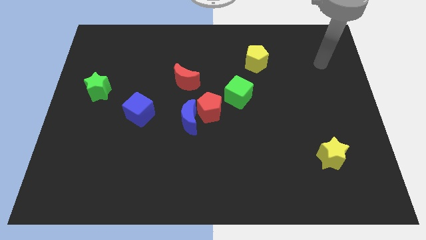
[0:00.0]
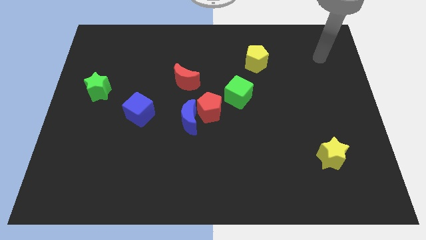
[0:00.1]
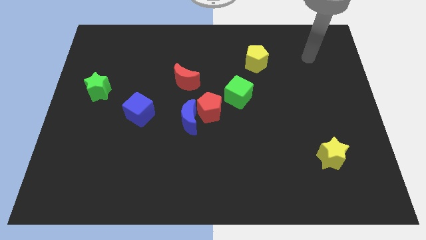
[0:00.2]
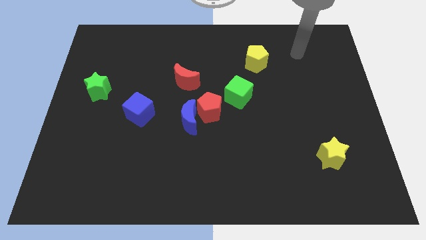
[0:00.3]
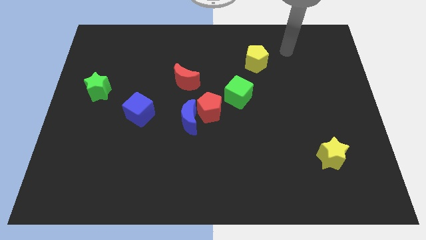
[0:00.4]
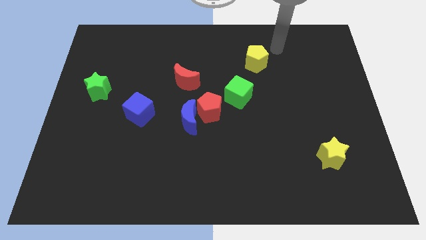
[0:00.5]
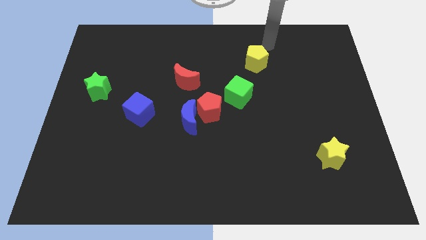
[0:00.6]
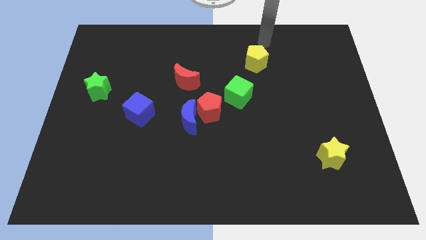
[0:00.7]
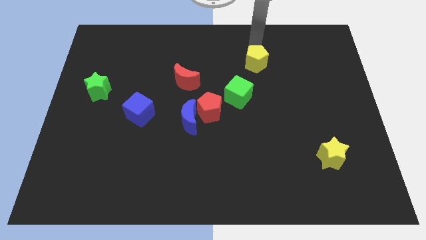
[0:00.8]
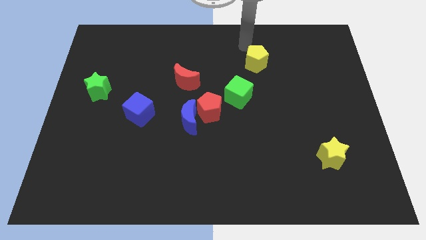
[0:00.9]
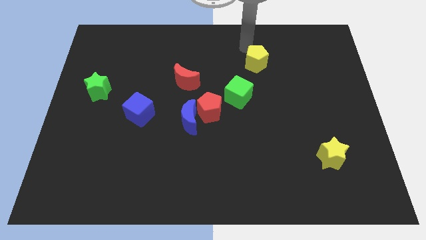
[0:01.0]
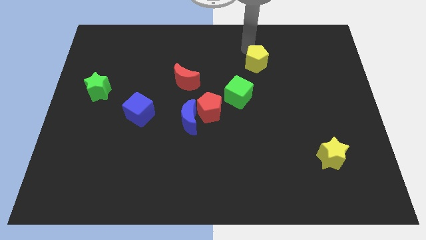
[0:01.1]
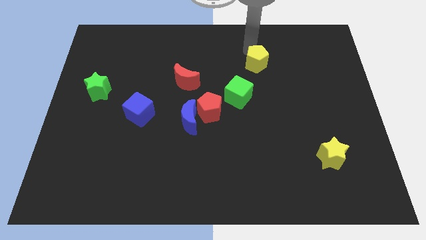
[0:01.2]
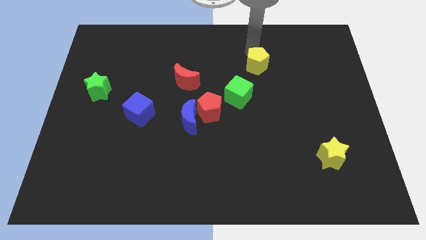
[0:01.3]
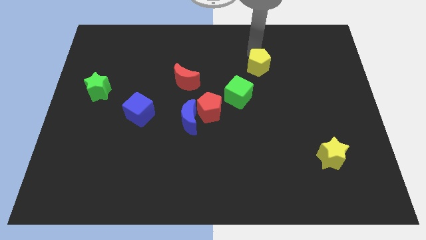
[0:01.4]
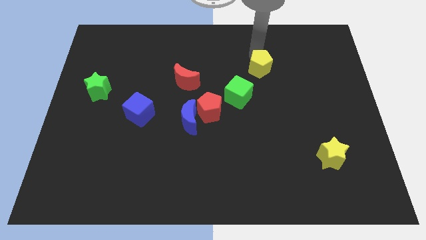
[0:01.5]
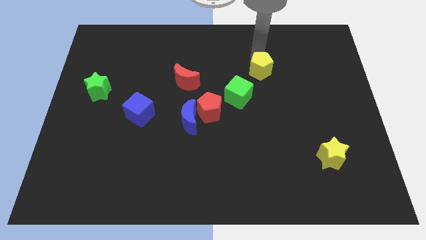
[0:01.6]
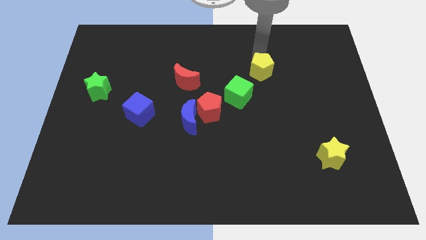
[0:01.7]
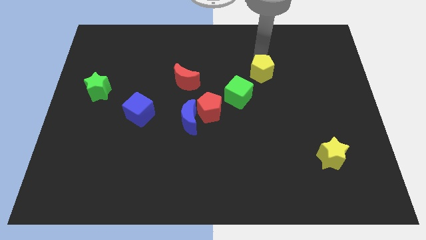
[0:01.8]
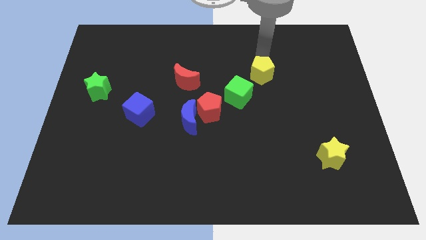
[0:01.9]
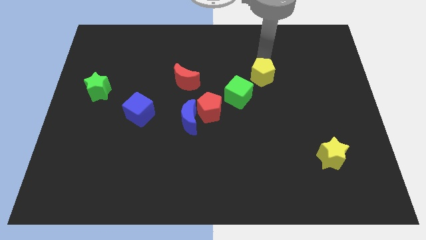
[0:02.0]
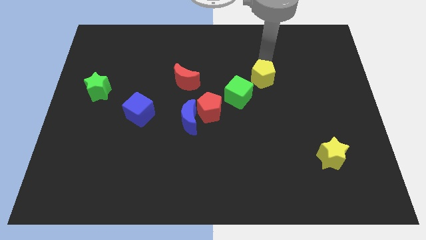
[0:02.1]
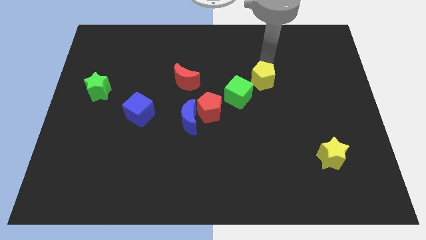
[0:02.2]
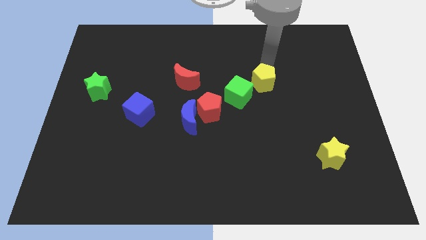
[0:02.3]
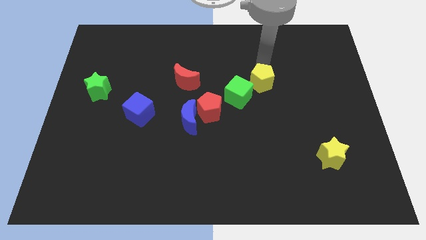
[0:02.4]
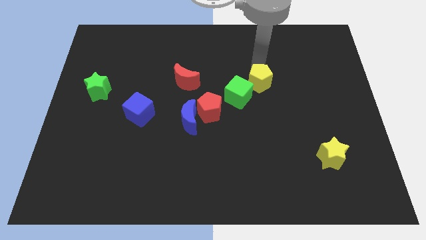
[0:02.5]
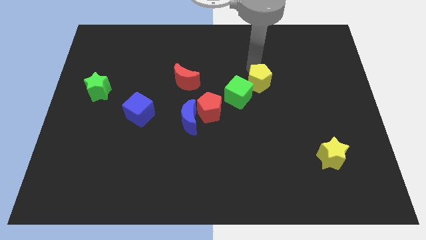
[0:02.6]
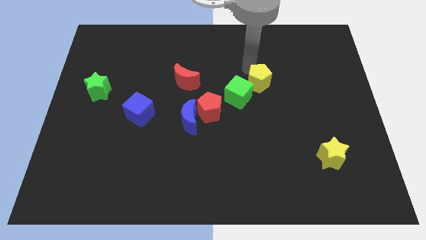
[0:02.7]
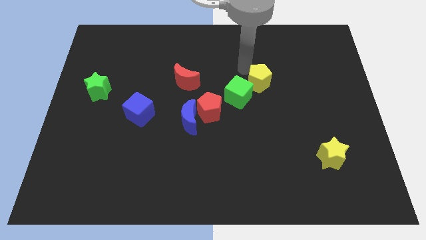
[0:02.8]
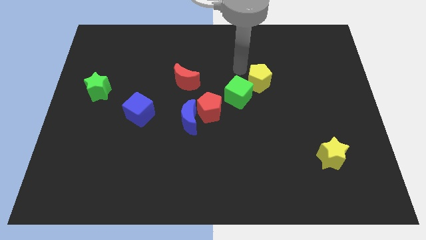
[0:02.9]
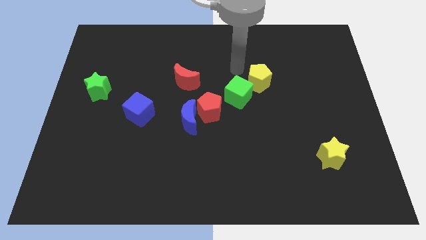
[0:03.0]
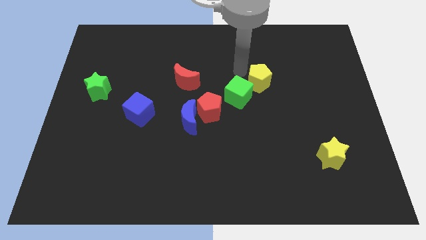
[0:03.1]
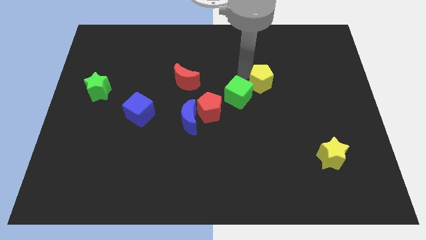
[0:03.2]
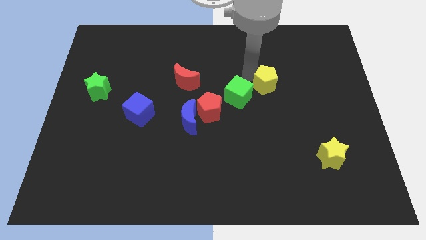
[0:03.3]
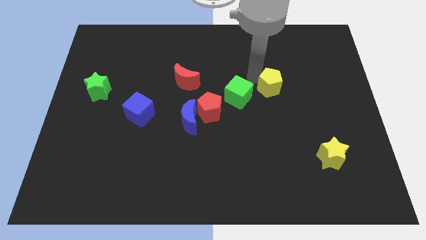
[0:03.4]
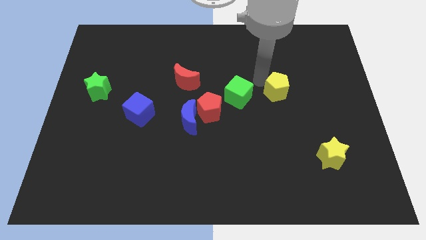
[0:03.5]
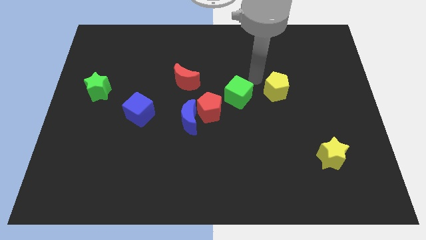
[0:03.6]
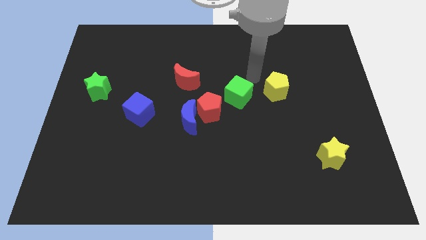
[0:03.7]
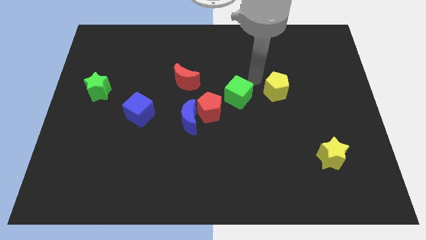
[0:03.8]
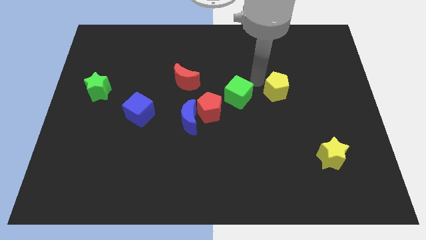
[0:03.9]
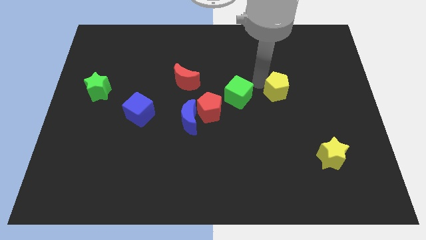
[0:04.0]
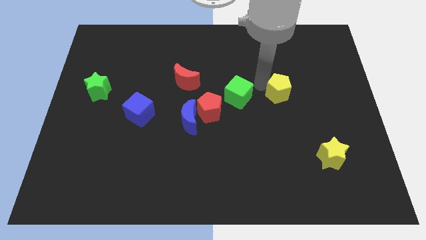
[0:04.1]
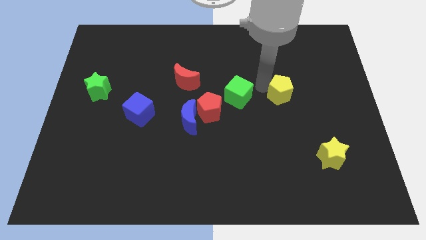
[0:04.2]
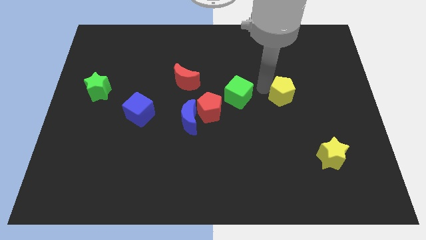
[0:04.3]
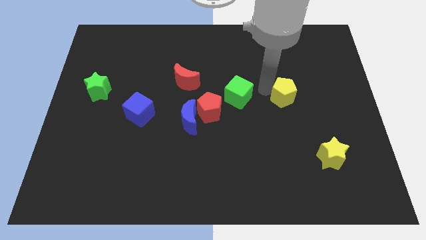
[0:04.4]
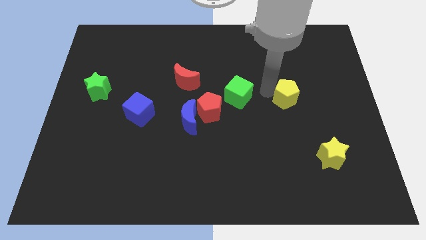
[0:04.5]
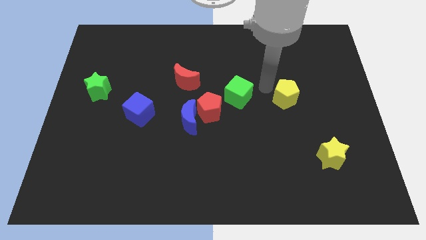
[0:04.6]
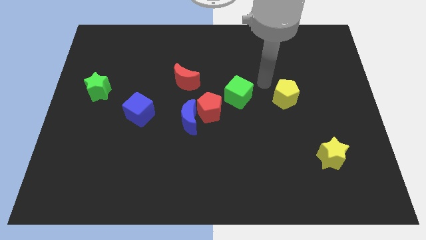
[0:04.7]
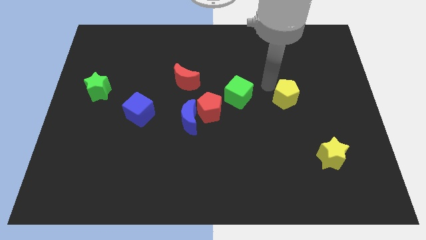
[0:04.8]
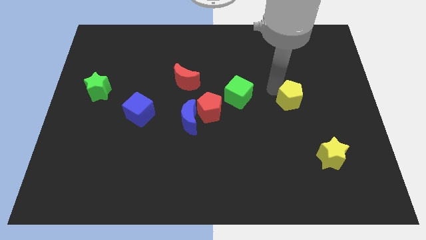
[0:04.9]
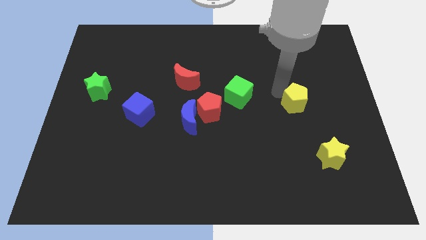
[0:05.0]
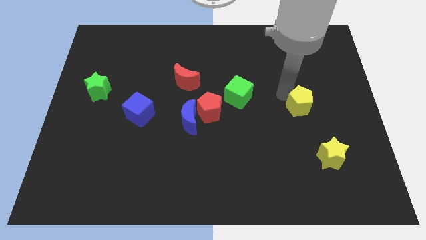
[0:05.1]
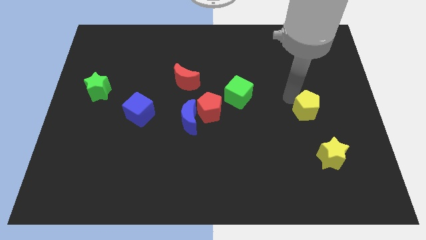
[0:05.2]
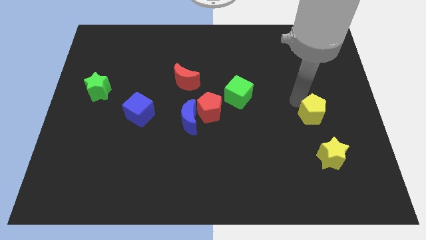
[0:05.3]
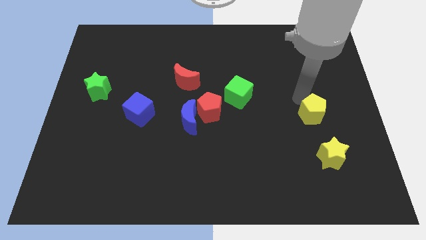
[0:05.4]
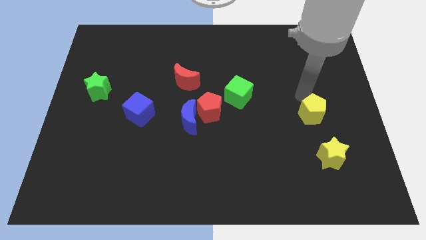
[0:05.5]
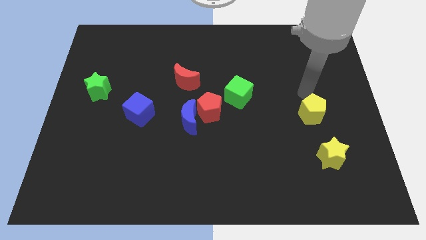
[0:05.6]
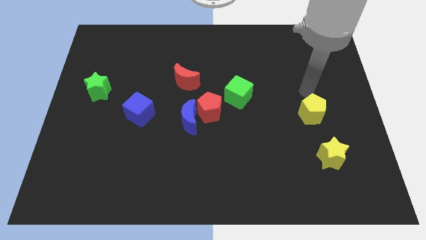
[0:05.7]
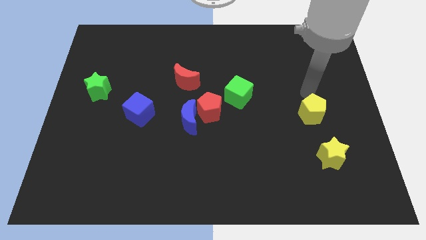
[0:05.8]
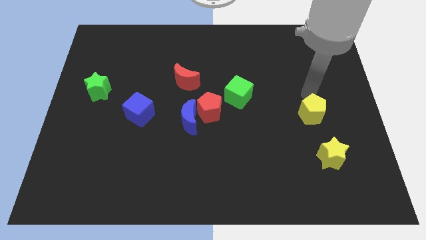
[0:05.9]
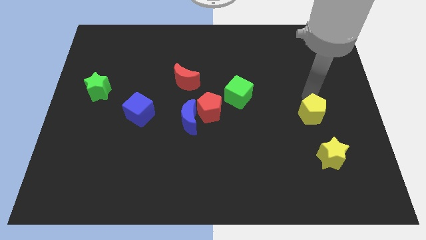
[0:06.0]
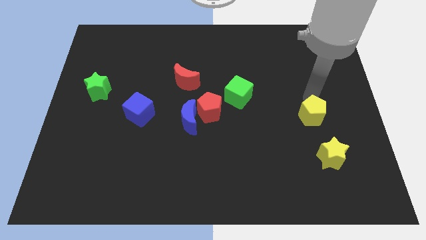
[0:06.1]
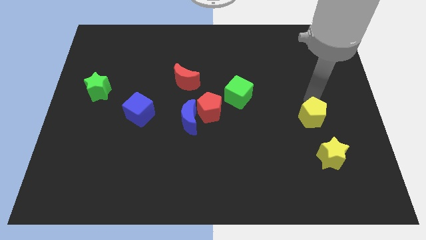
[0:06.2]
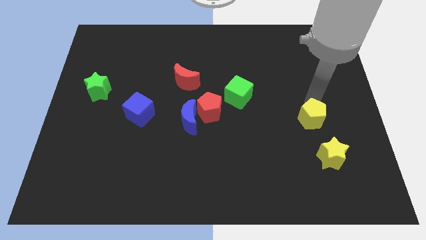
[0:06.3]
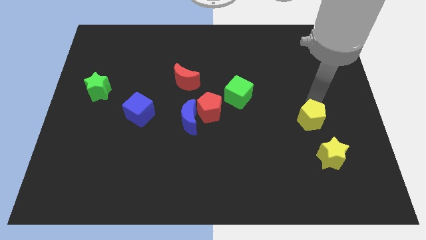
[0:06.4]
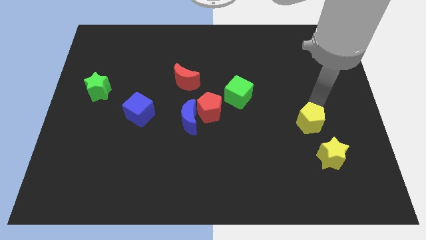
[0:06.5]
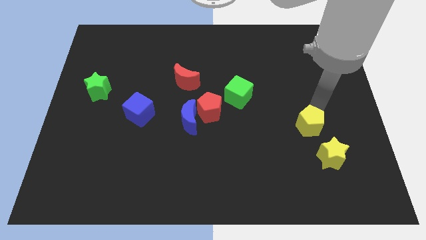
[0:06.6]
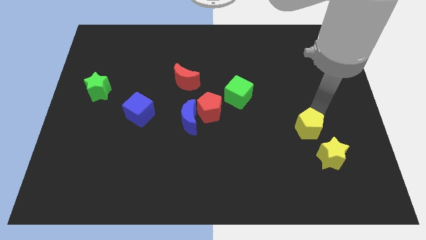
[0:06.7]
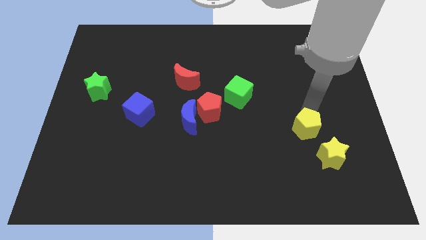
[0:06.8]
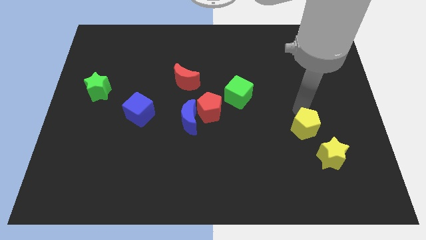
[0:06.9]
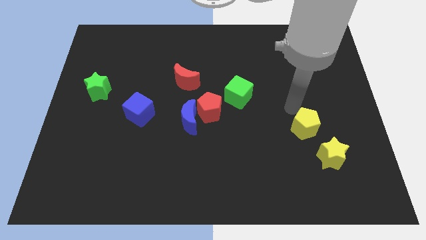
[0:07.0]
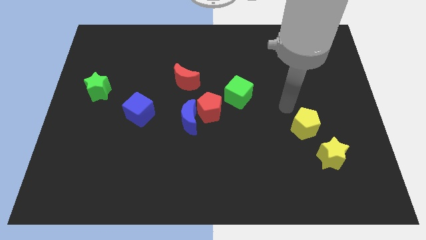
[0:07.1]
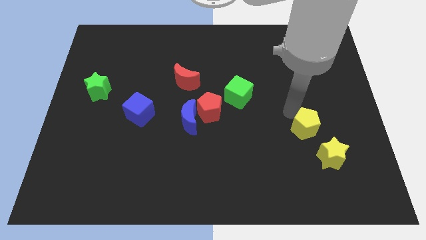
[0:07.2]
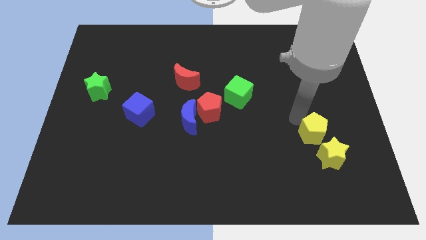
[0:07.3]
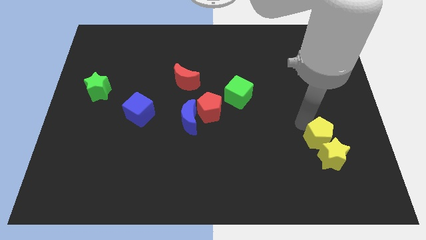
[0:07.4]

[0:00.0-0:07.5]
move the yellow pentagon next to the yellow star

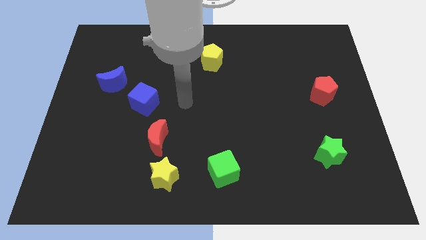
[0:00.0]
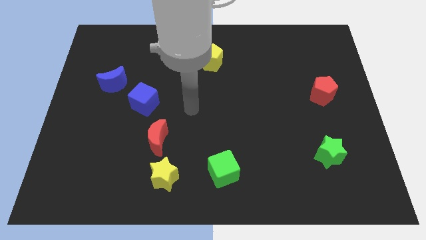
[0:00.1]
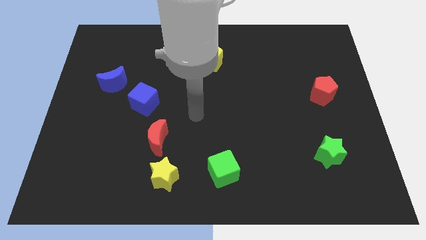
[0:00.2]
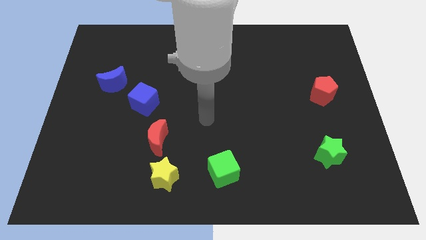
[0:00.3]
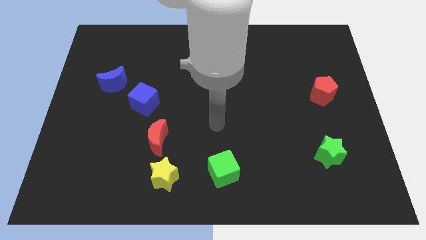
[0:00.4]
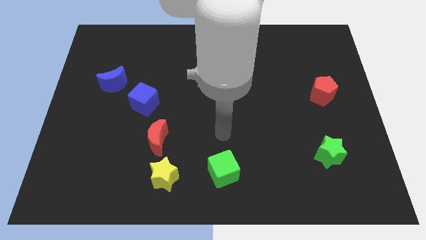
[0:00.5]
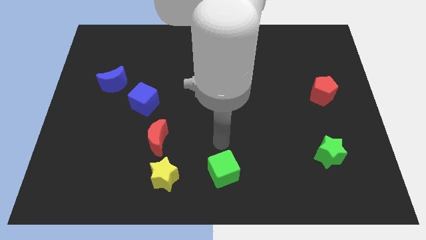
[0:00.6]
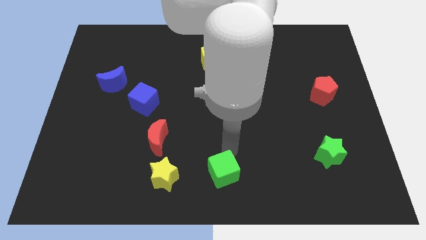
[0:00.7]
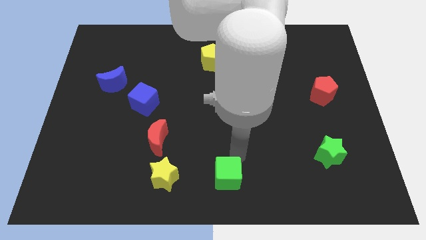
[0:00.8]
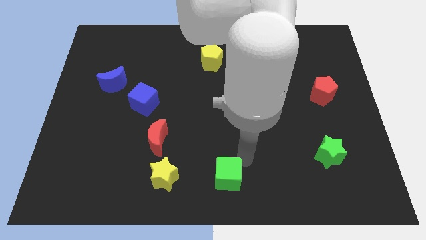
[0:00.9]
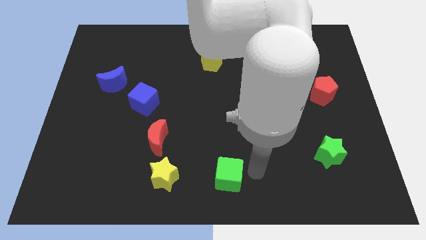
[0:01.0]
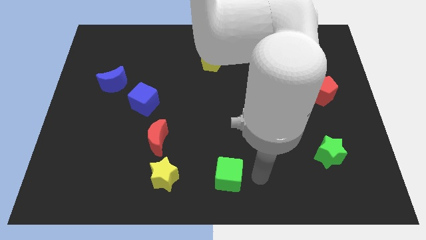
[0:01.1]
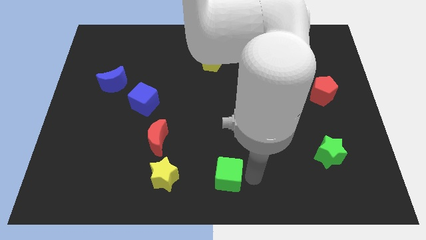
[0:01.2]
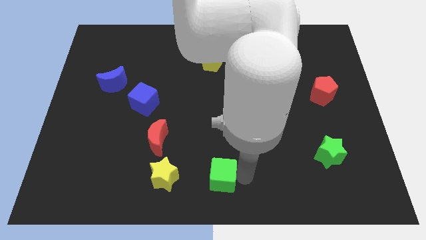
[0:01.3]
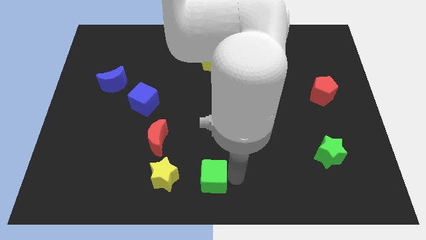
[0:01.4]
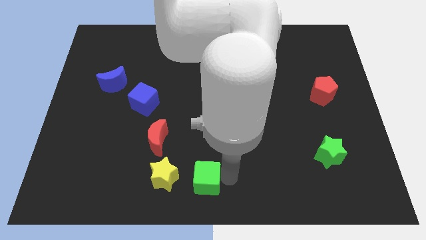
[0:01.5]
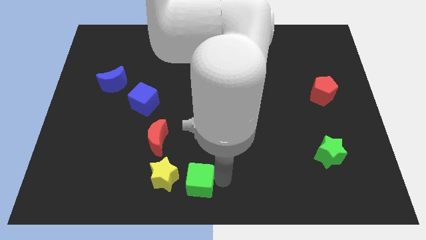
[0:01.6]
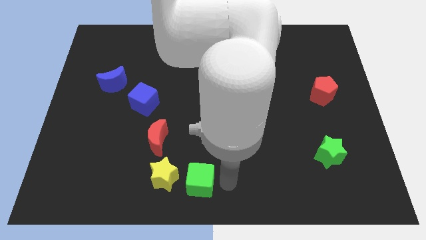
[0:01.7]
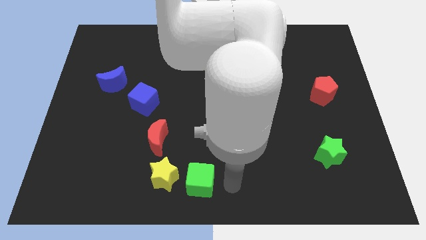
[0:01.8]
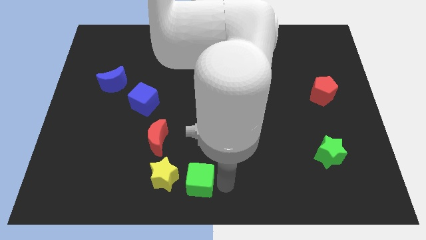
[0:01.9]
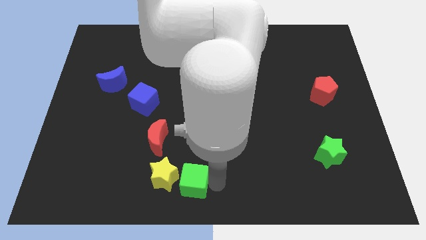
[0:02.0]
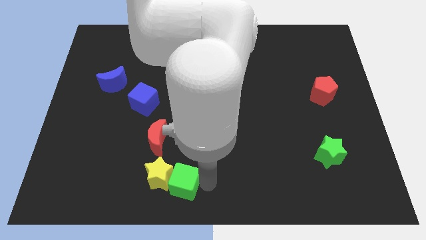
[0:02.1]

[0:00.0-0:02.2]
slide the green cube towards the yellow star
